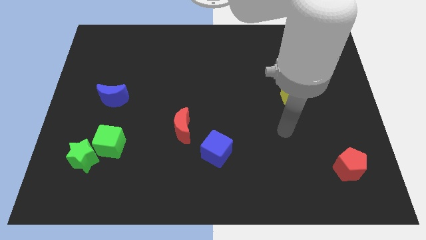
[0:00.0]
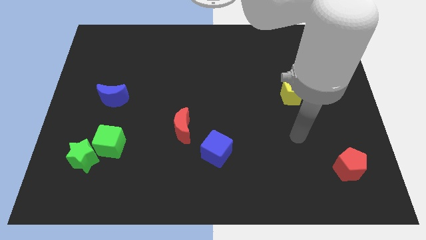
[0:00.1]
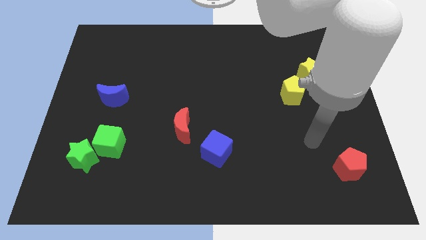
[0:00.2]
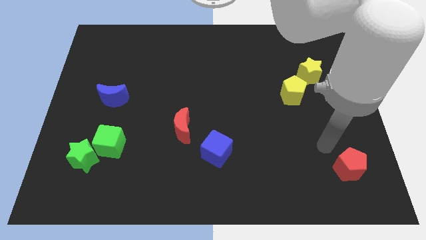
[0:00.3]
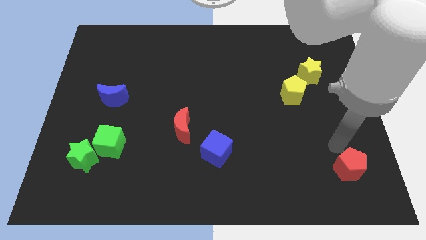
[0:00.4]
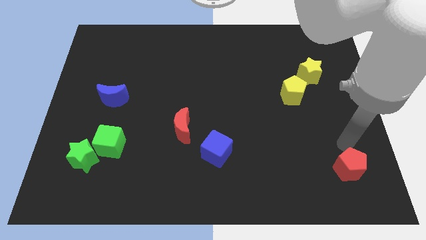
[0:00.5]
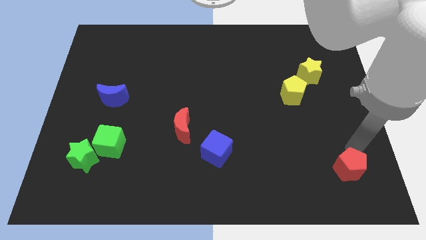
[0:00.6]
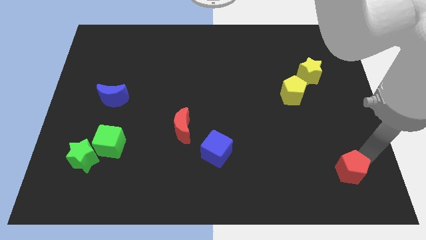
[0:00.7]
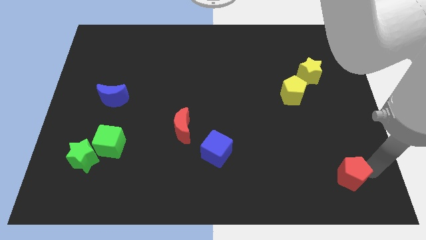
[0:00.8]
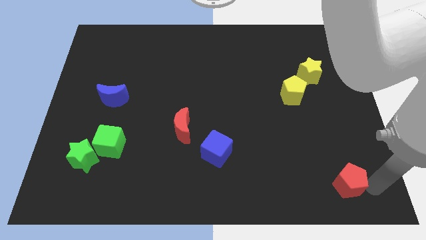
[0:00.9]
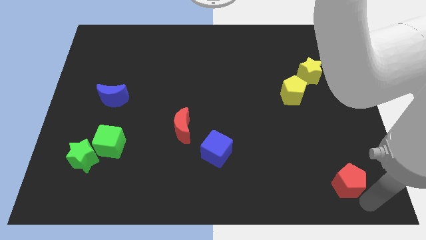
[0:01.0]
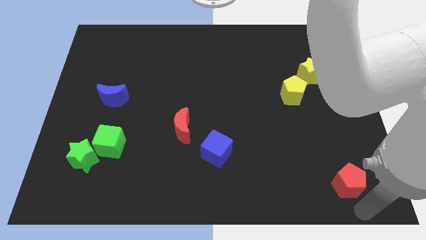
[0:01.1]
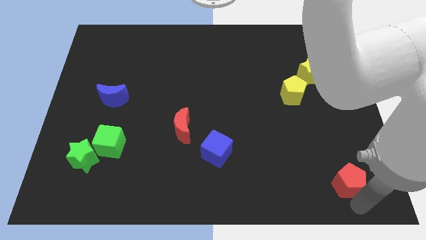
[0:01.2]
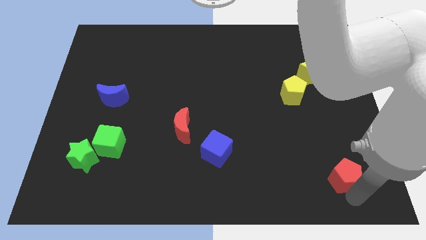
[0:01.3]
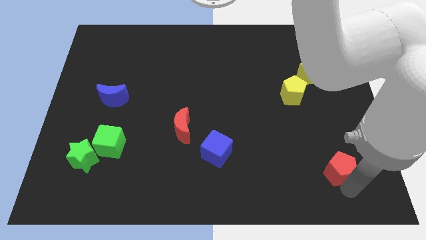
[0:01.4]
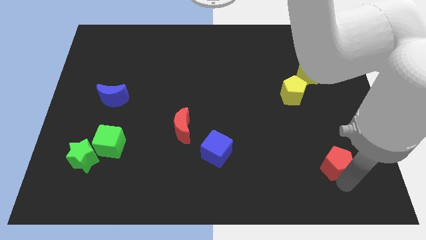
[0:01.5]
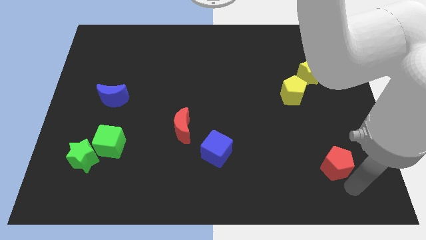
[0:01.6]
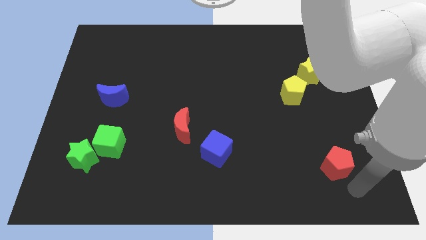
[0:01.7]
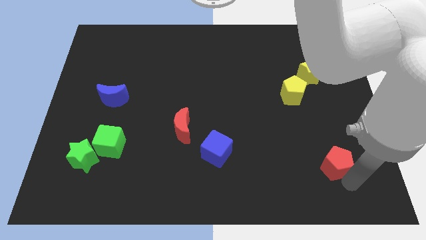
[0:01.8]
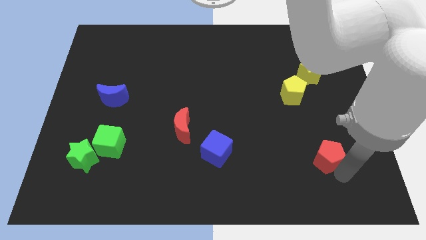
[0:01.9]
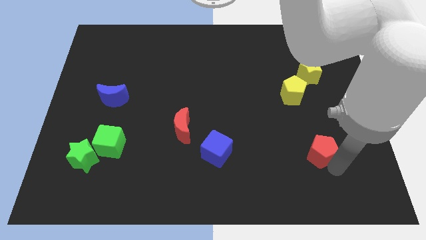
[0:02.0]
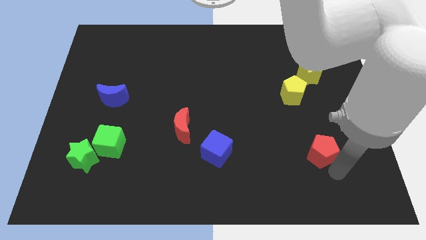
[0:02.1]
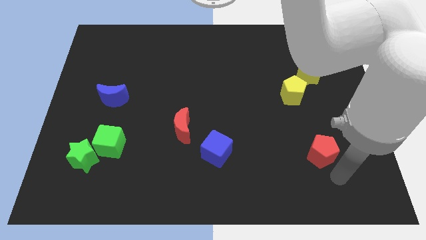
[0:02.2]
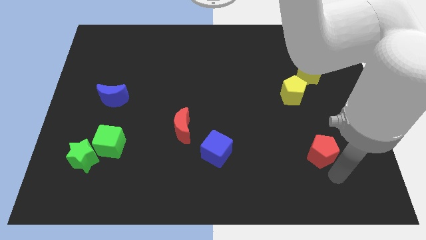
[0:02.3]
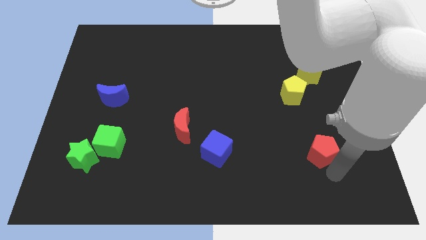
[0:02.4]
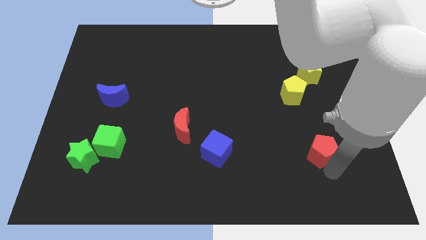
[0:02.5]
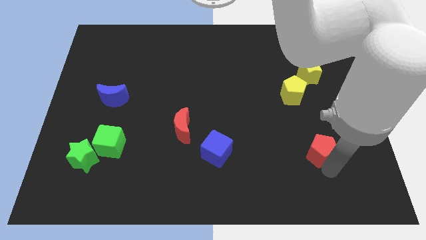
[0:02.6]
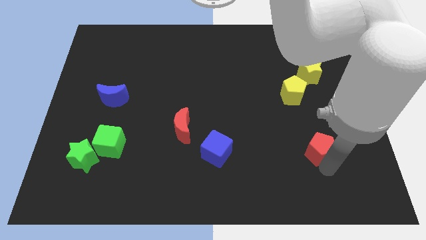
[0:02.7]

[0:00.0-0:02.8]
push the red pentagon a bit diagonally up and left

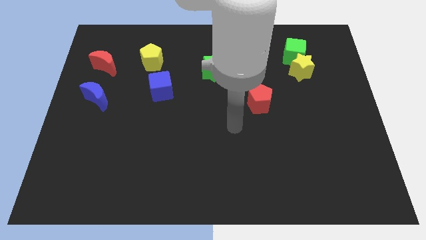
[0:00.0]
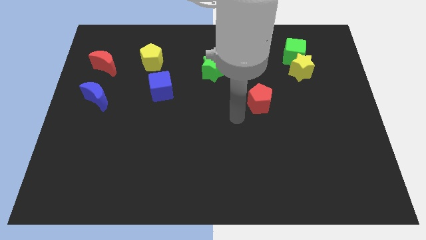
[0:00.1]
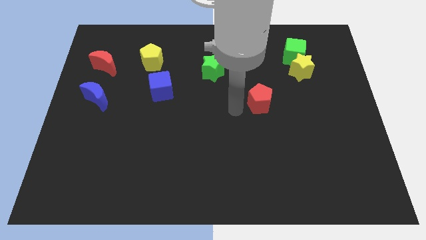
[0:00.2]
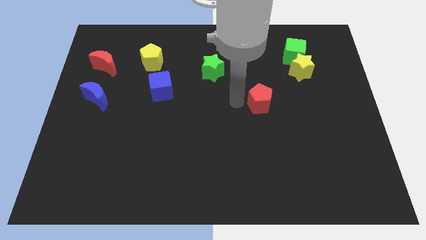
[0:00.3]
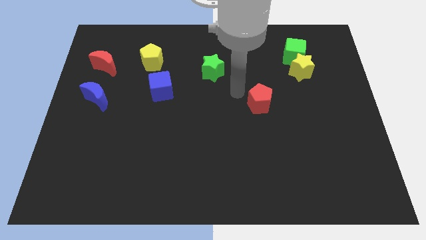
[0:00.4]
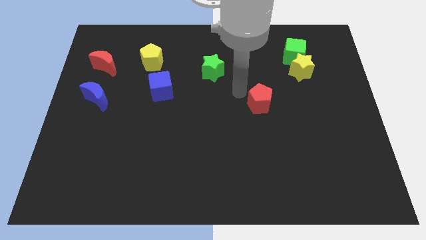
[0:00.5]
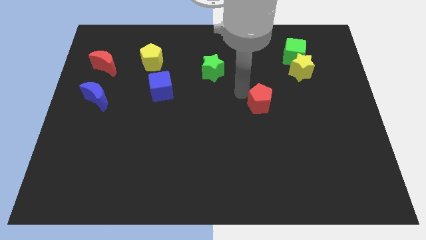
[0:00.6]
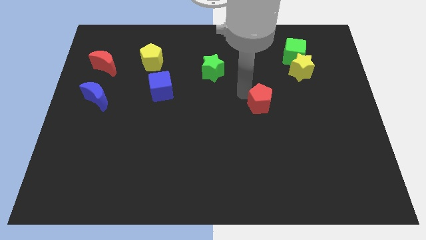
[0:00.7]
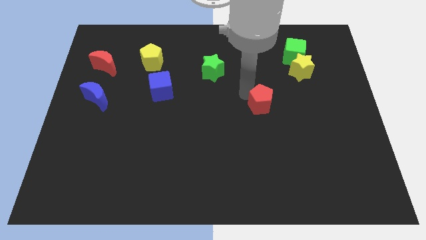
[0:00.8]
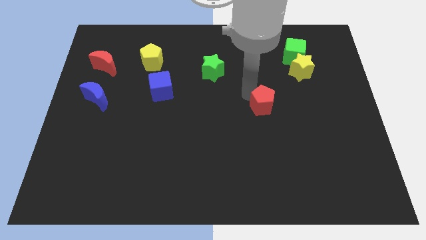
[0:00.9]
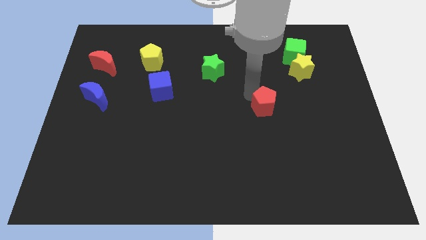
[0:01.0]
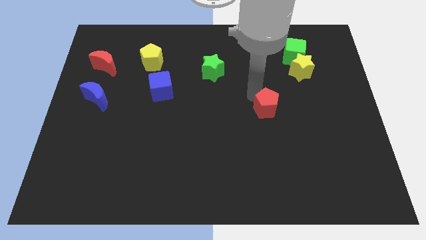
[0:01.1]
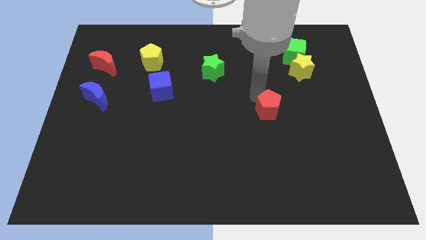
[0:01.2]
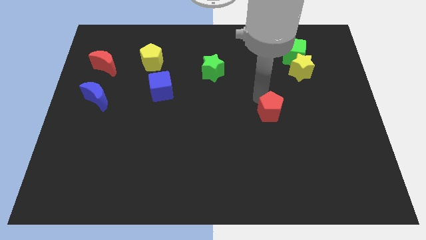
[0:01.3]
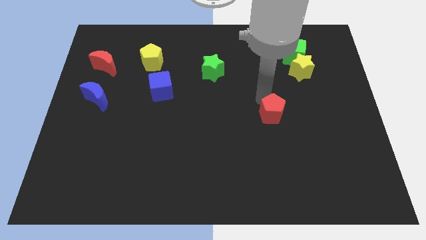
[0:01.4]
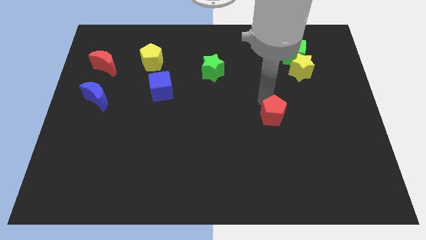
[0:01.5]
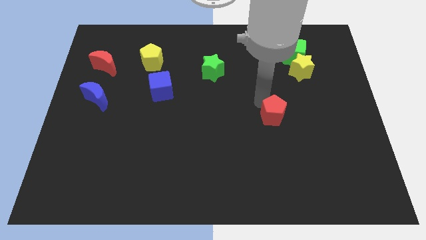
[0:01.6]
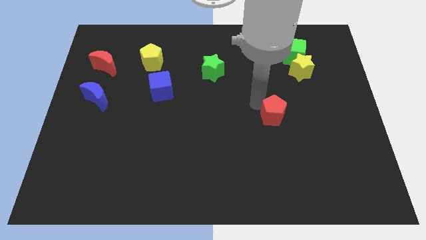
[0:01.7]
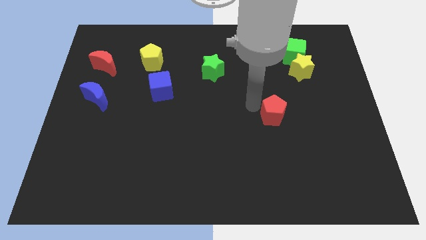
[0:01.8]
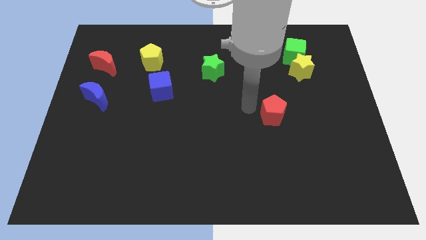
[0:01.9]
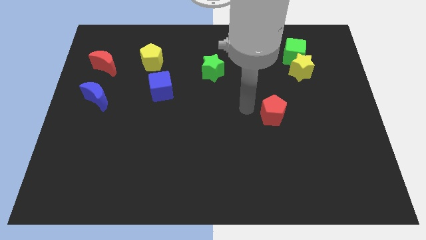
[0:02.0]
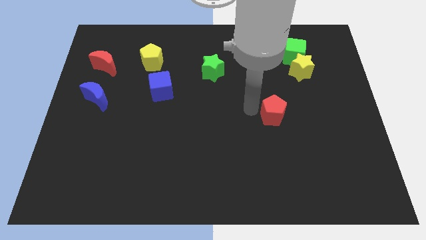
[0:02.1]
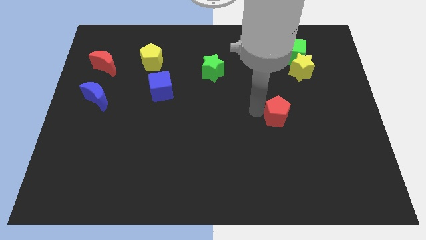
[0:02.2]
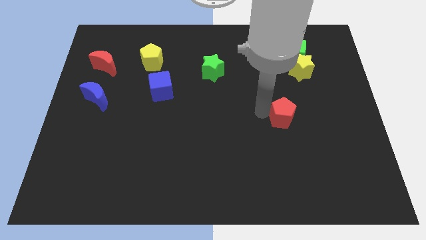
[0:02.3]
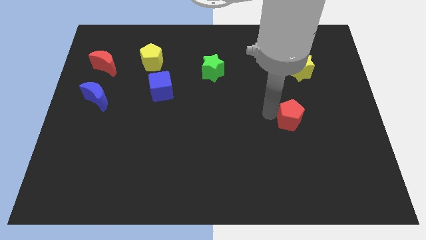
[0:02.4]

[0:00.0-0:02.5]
slightly push the red pentagon down and to the right

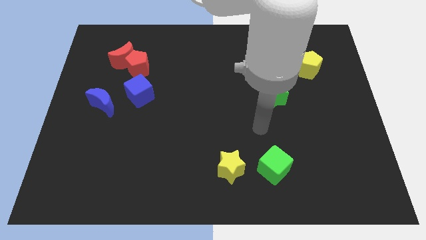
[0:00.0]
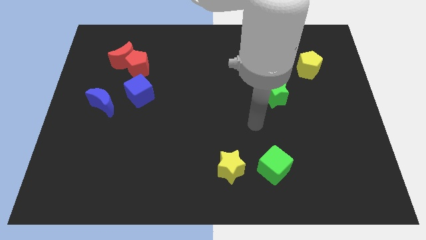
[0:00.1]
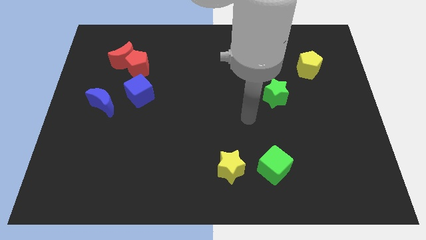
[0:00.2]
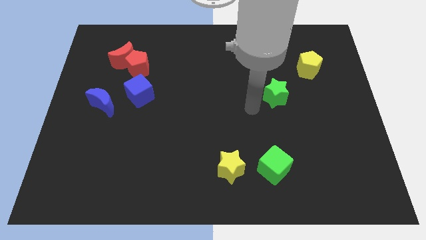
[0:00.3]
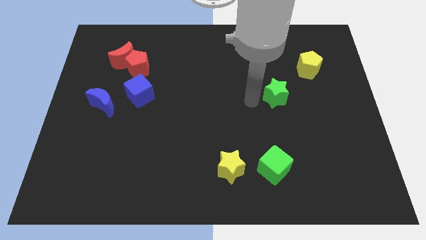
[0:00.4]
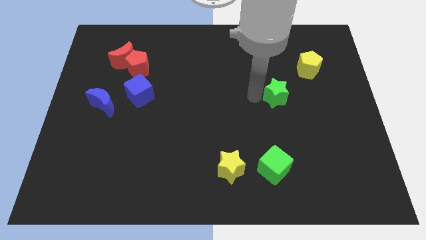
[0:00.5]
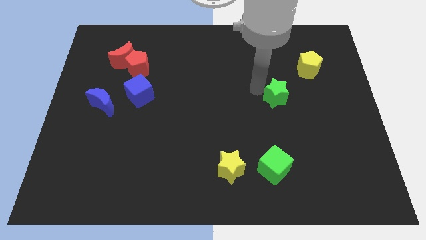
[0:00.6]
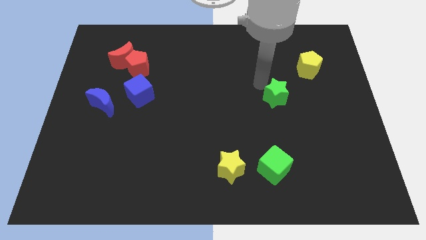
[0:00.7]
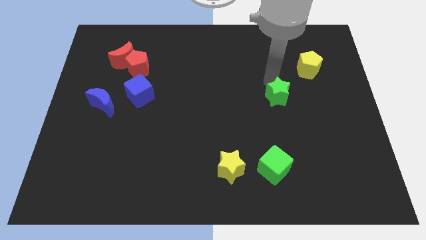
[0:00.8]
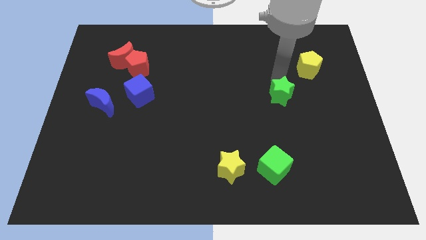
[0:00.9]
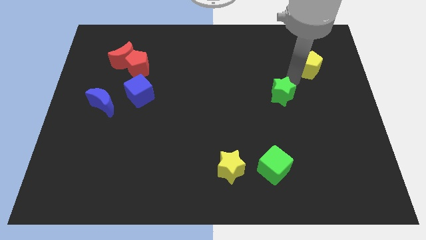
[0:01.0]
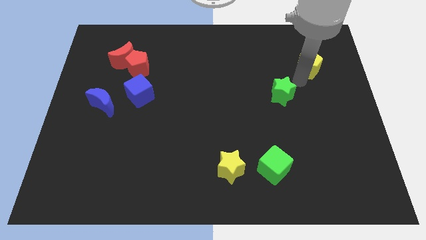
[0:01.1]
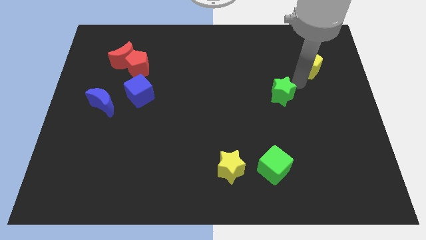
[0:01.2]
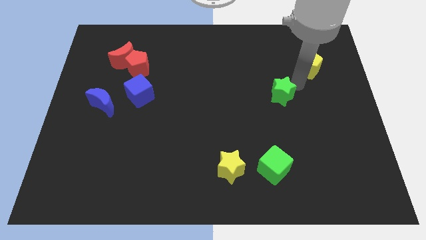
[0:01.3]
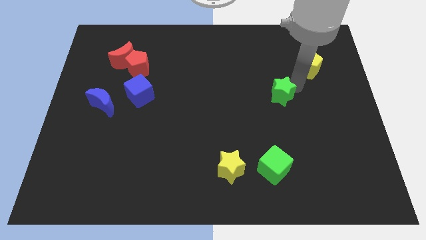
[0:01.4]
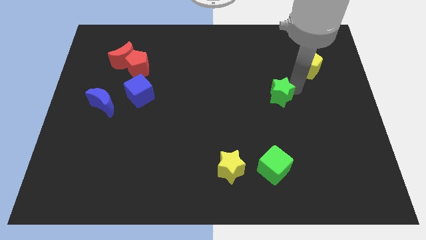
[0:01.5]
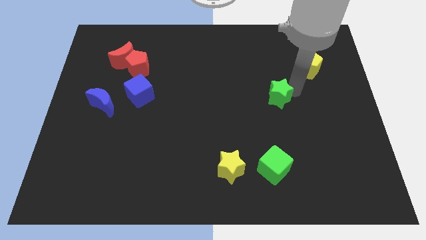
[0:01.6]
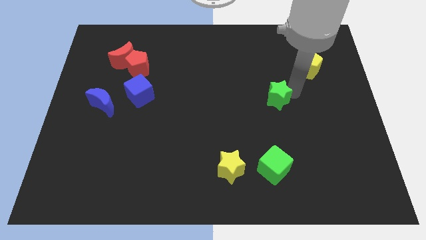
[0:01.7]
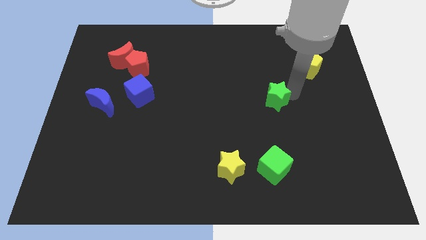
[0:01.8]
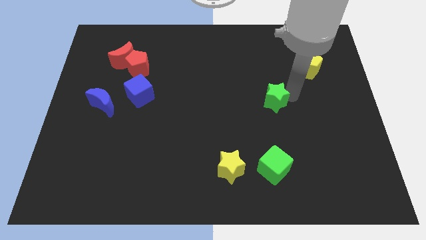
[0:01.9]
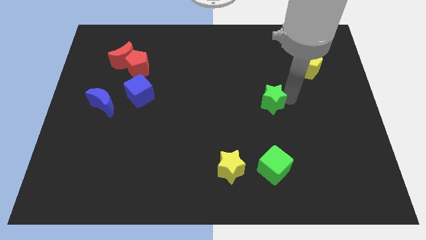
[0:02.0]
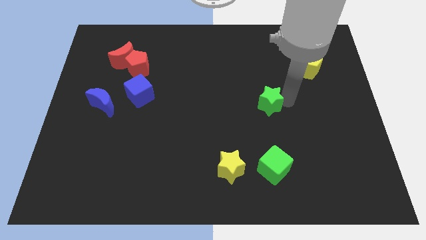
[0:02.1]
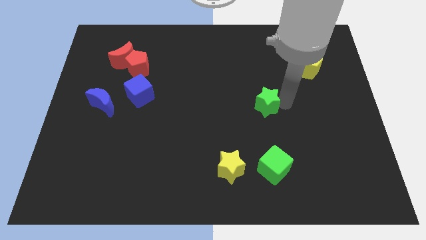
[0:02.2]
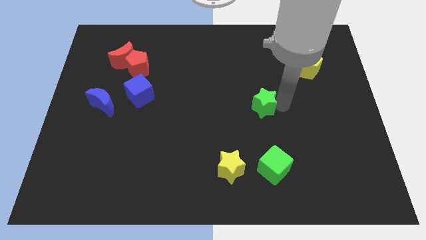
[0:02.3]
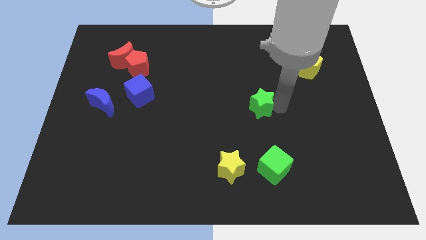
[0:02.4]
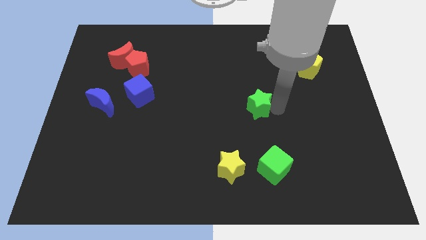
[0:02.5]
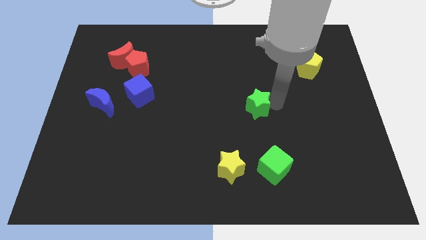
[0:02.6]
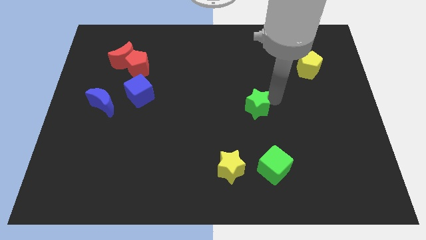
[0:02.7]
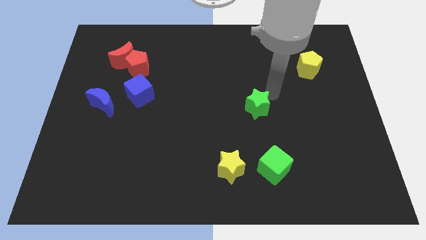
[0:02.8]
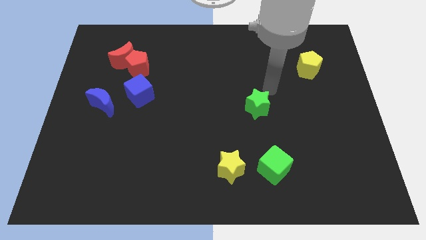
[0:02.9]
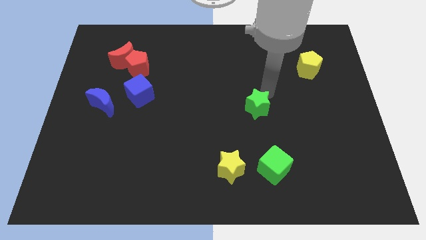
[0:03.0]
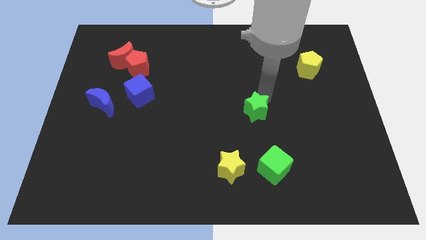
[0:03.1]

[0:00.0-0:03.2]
push the green star a little downwards and to the left
